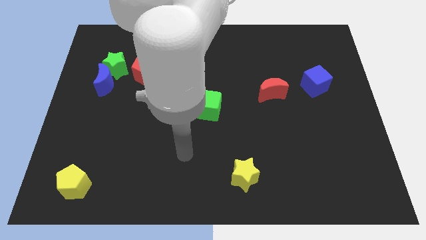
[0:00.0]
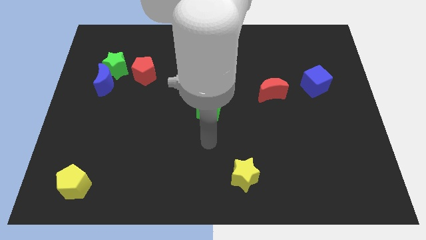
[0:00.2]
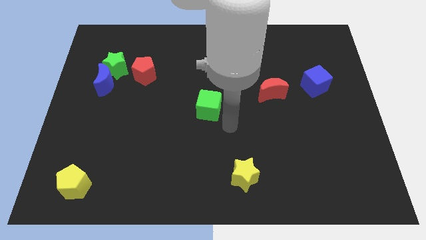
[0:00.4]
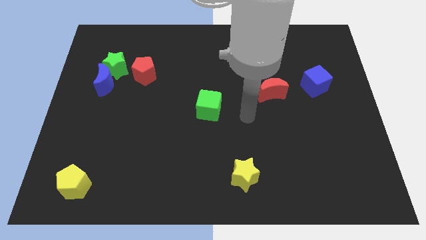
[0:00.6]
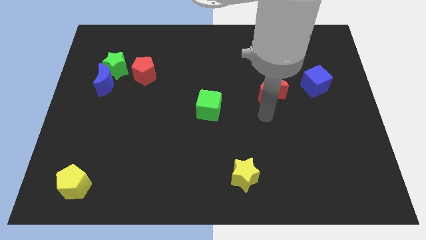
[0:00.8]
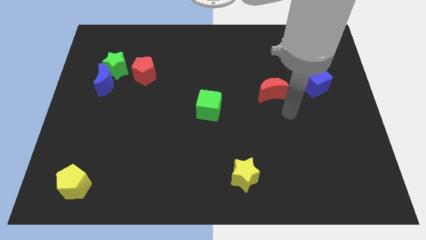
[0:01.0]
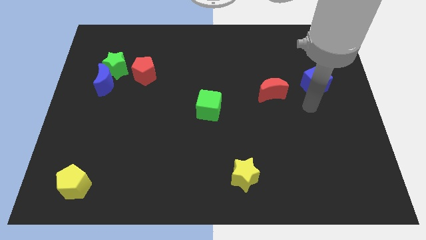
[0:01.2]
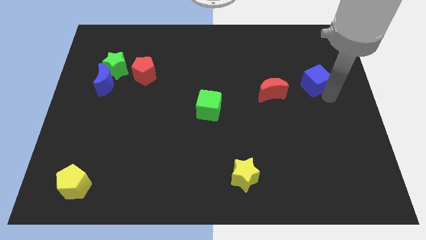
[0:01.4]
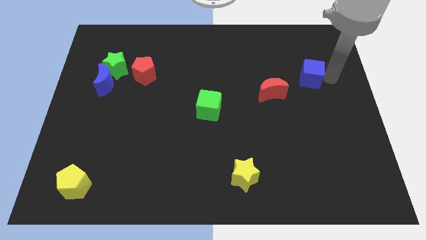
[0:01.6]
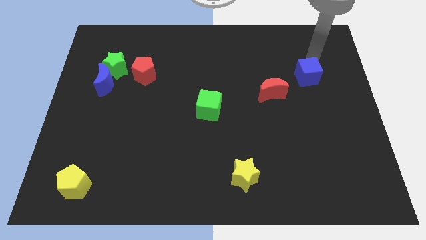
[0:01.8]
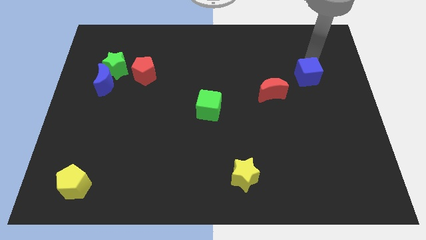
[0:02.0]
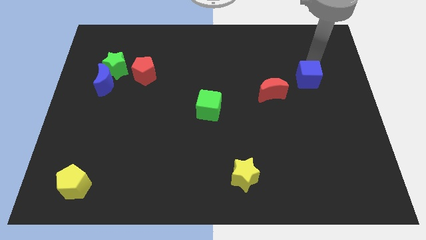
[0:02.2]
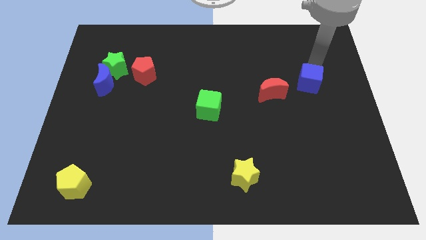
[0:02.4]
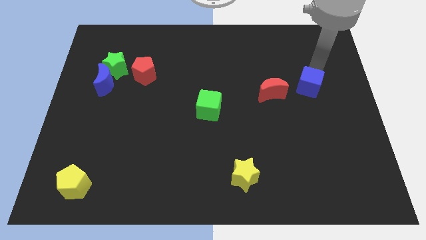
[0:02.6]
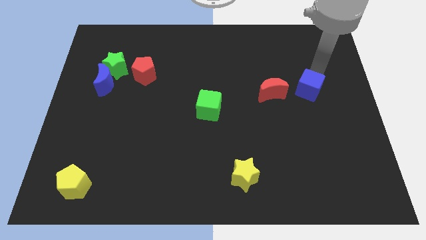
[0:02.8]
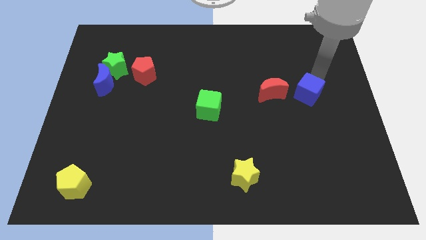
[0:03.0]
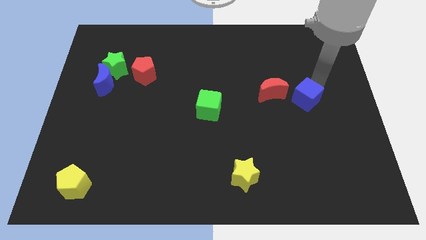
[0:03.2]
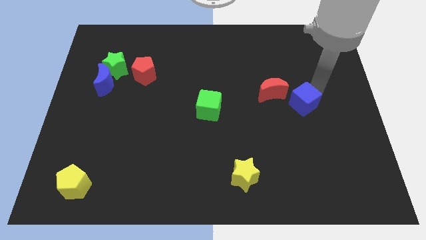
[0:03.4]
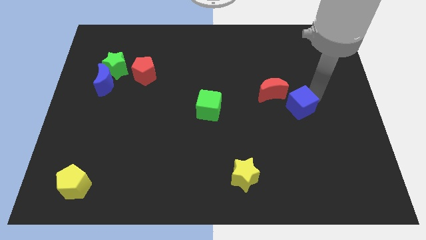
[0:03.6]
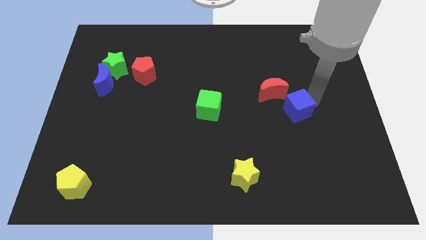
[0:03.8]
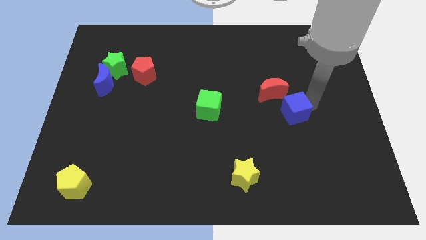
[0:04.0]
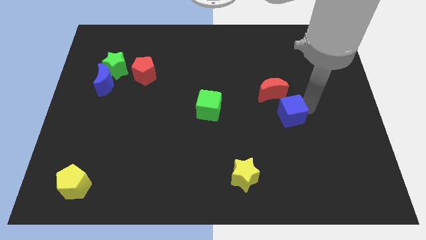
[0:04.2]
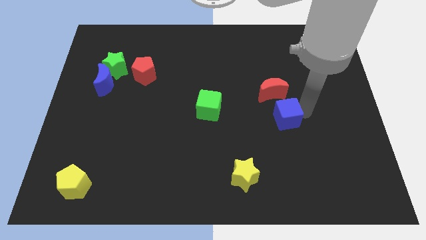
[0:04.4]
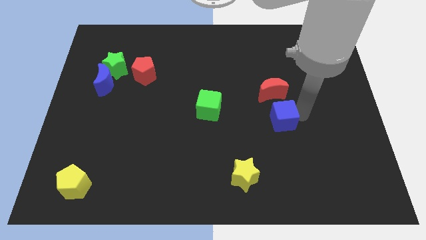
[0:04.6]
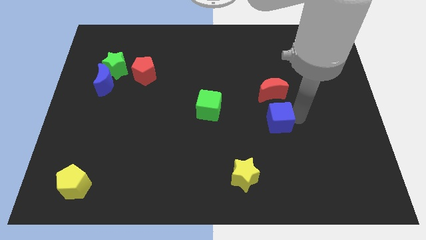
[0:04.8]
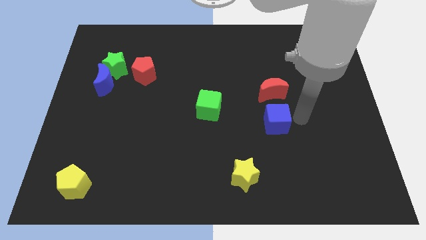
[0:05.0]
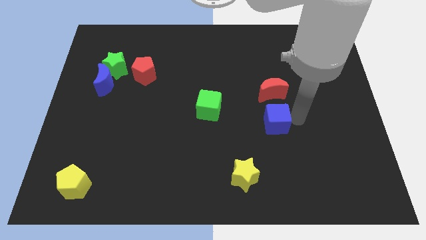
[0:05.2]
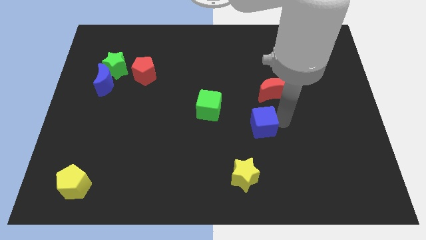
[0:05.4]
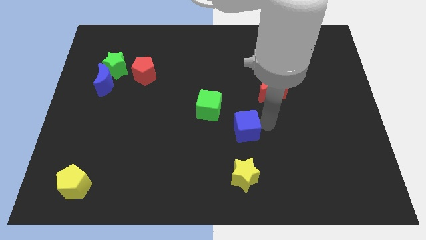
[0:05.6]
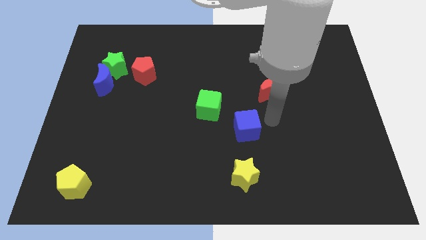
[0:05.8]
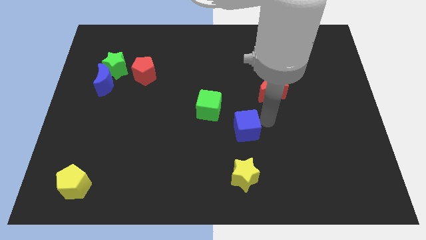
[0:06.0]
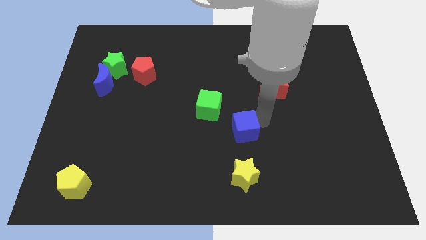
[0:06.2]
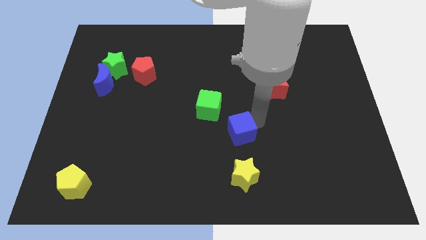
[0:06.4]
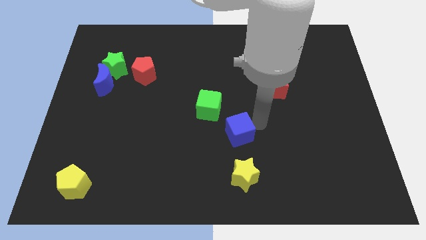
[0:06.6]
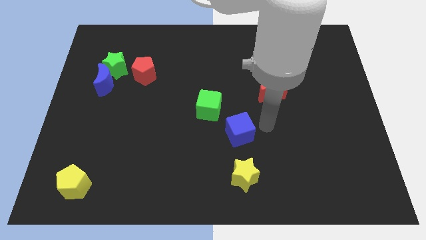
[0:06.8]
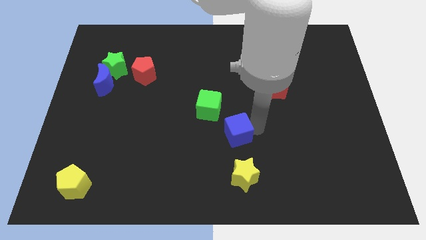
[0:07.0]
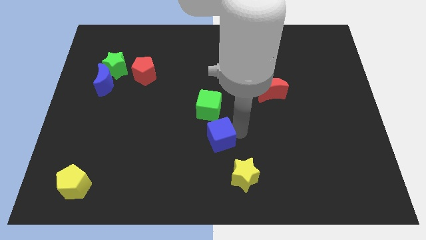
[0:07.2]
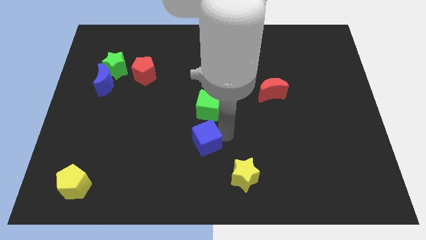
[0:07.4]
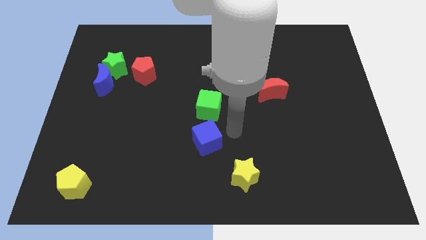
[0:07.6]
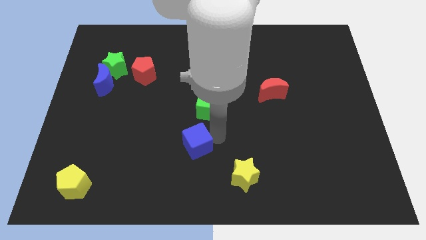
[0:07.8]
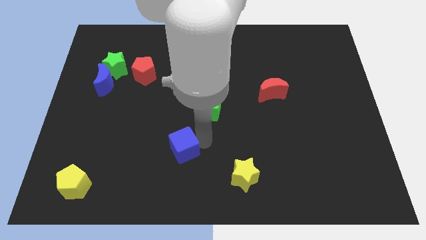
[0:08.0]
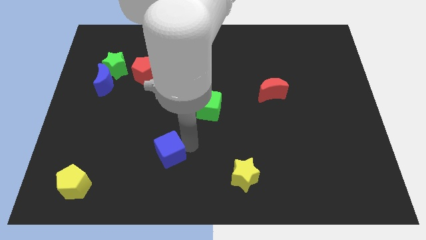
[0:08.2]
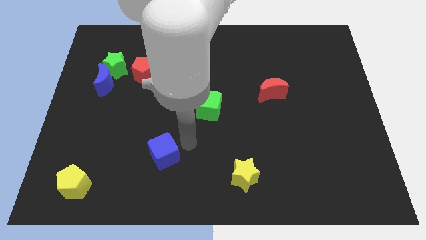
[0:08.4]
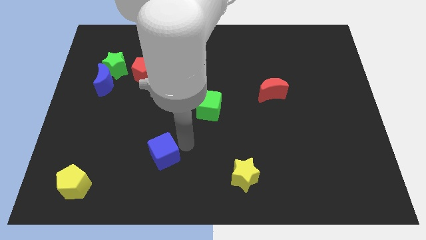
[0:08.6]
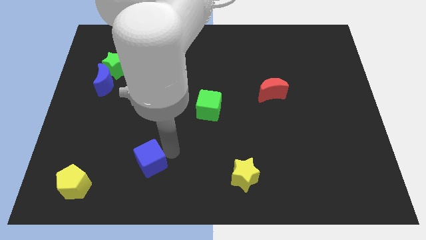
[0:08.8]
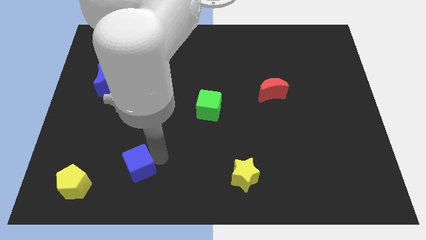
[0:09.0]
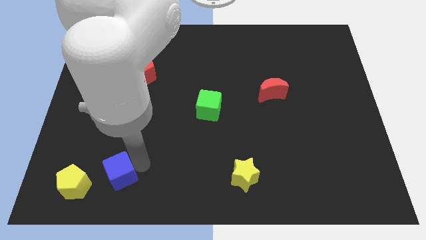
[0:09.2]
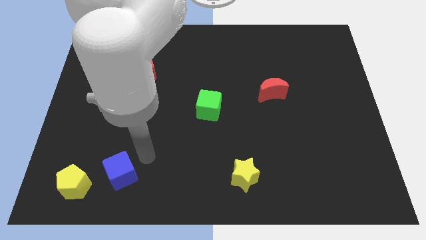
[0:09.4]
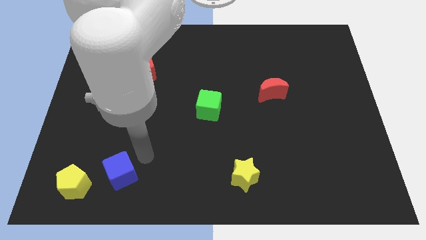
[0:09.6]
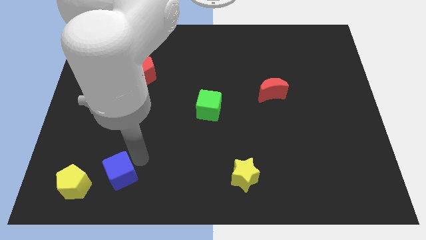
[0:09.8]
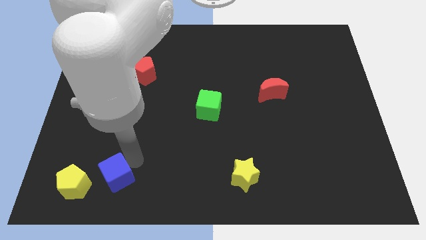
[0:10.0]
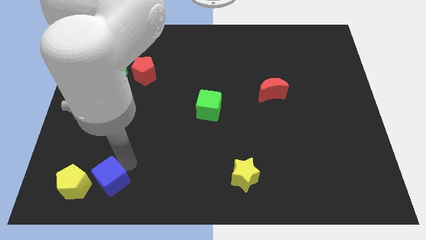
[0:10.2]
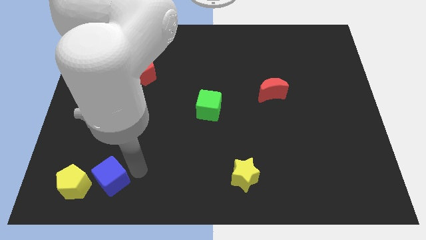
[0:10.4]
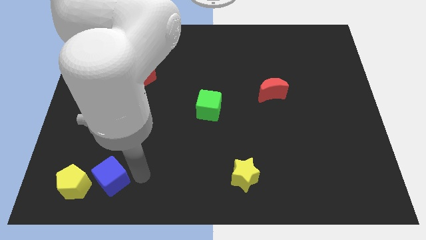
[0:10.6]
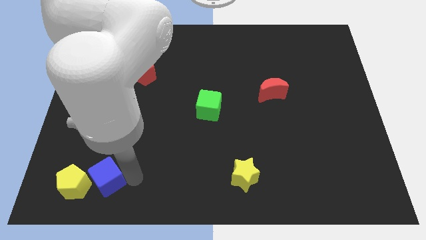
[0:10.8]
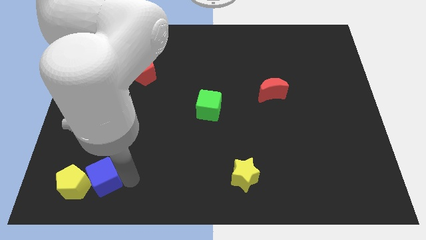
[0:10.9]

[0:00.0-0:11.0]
move the blue cube close to the yellow pentagon

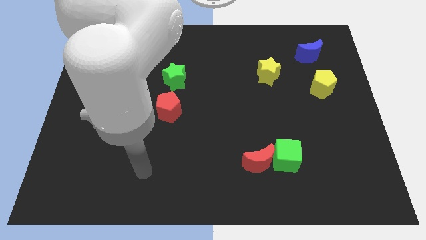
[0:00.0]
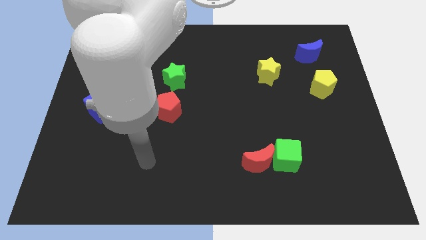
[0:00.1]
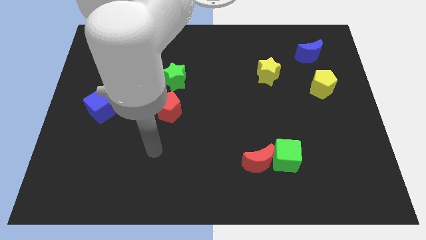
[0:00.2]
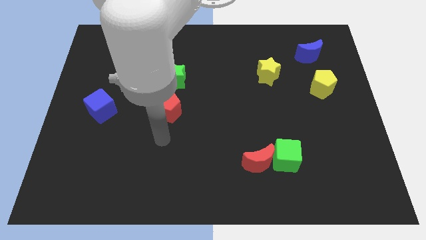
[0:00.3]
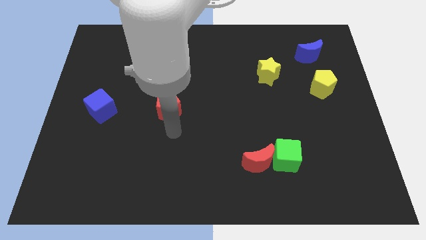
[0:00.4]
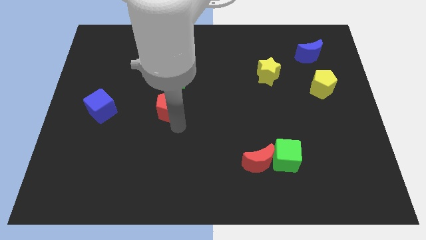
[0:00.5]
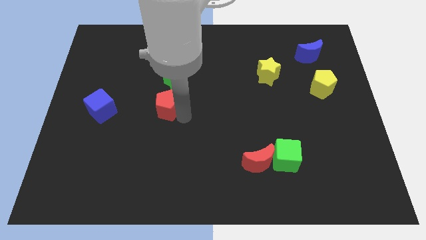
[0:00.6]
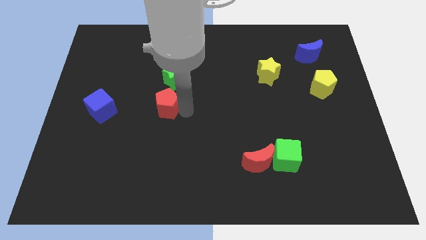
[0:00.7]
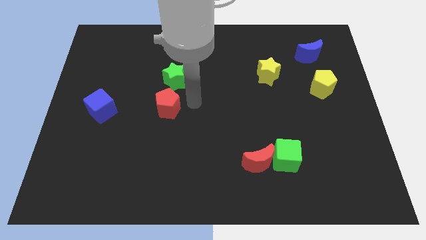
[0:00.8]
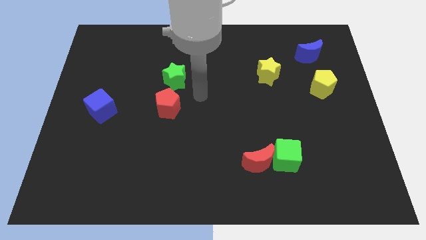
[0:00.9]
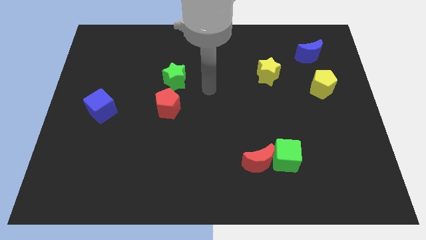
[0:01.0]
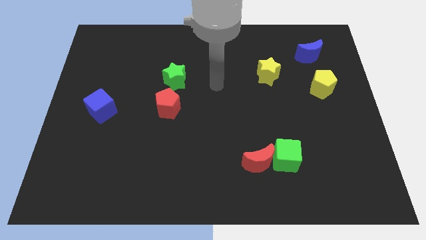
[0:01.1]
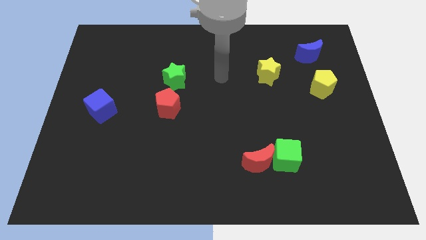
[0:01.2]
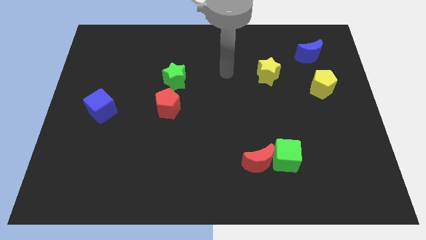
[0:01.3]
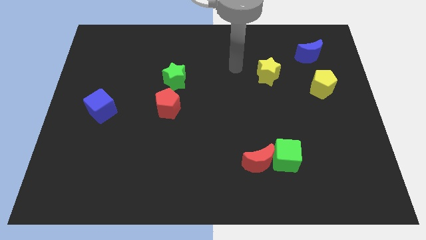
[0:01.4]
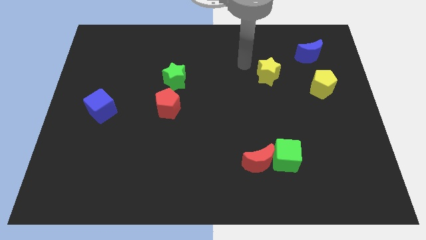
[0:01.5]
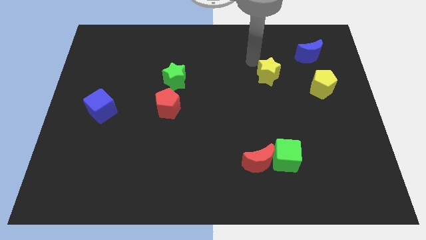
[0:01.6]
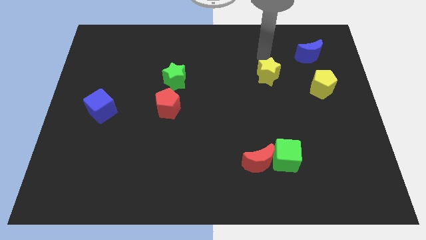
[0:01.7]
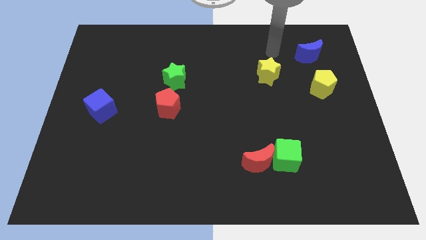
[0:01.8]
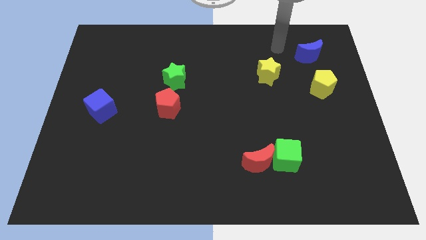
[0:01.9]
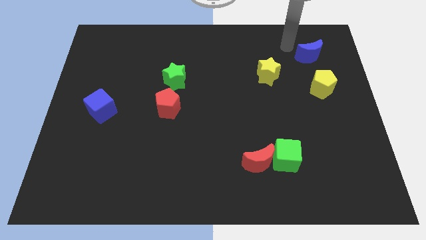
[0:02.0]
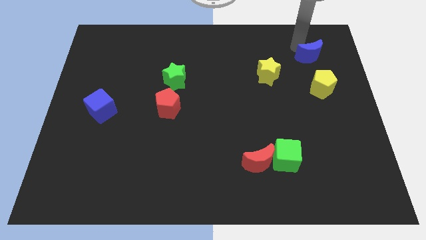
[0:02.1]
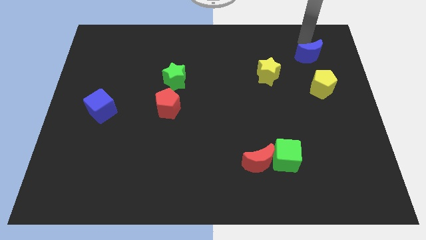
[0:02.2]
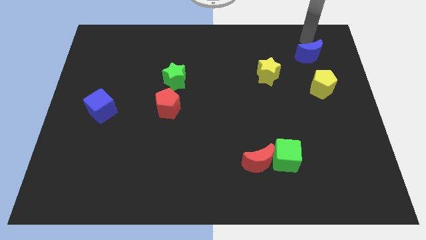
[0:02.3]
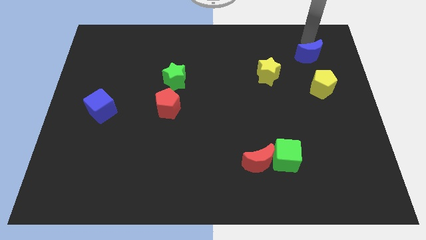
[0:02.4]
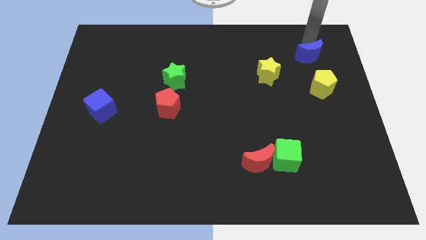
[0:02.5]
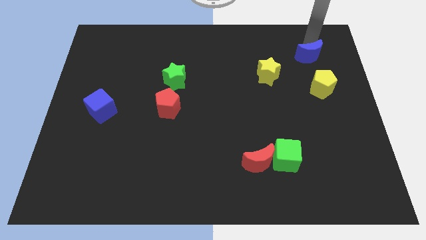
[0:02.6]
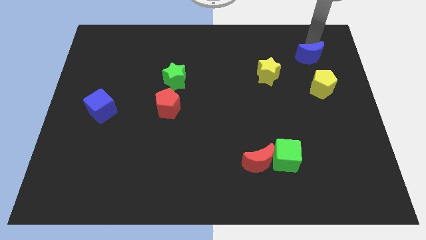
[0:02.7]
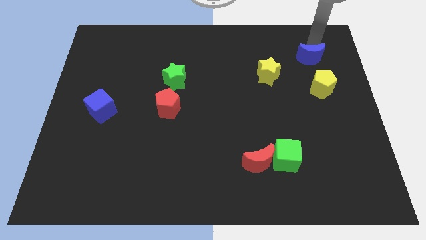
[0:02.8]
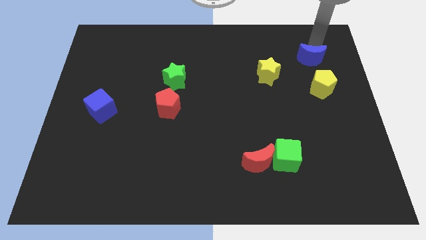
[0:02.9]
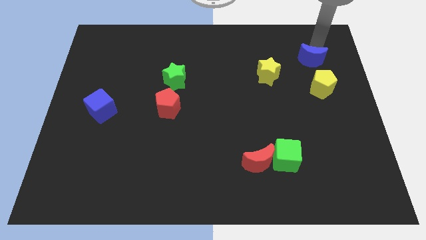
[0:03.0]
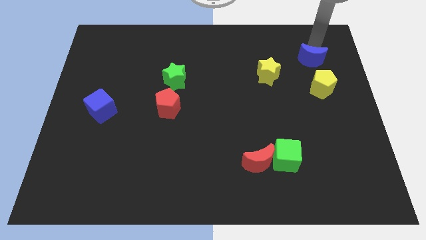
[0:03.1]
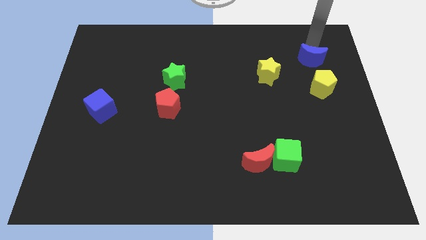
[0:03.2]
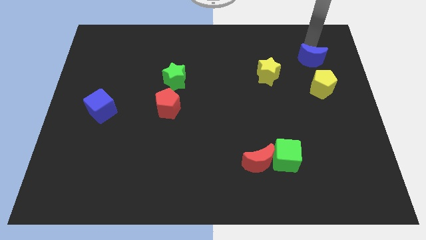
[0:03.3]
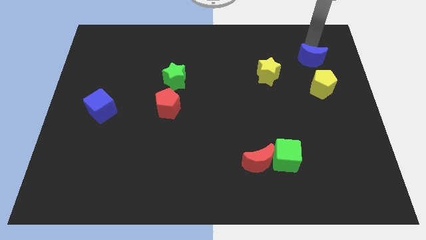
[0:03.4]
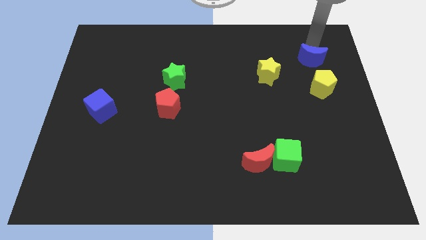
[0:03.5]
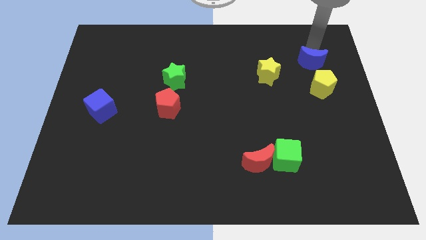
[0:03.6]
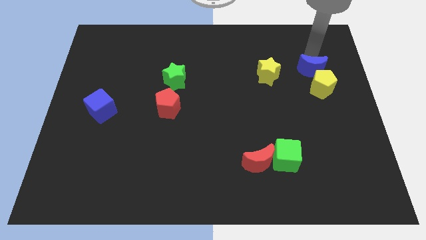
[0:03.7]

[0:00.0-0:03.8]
move the blue moon close to the yellow pentagon
